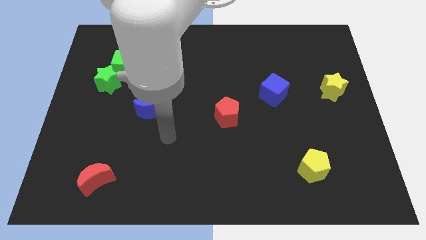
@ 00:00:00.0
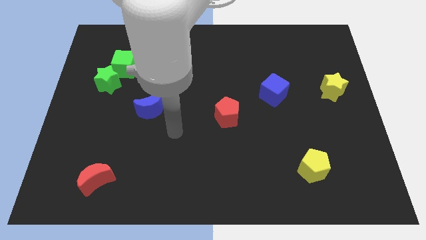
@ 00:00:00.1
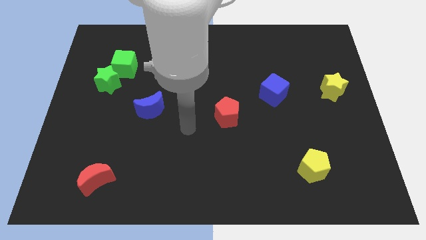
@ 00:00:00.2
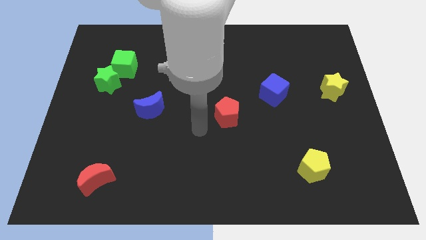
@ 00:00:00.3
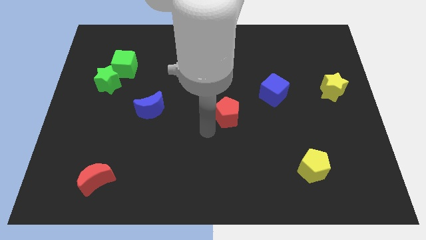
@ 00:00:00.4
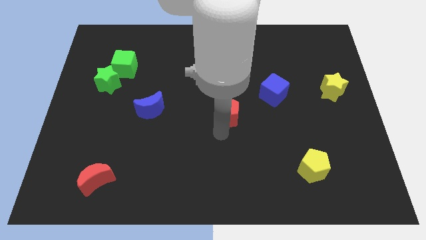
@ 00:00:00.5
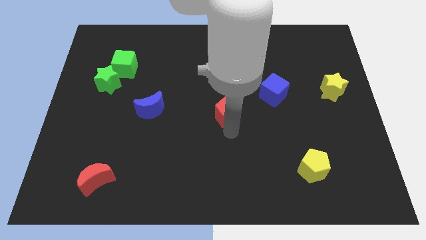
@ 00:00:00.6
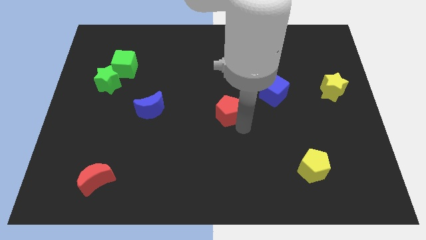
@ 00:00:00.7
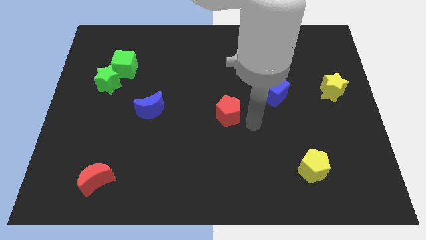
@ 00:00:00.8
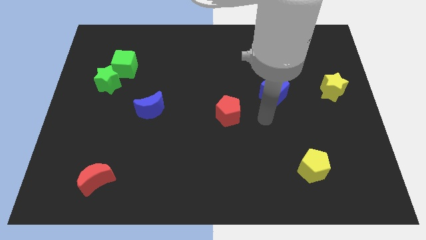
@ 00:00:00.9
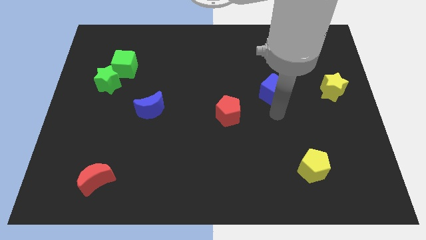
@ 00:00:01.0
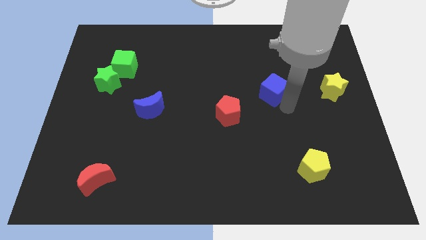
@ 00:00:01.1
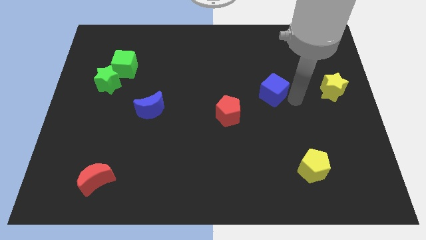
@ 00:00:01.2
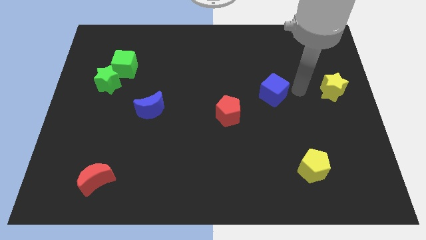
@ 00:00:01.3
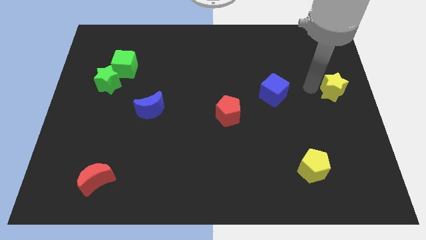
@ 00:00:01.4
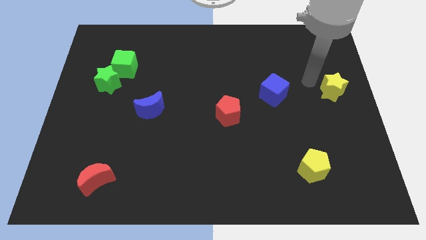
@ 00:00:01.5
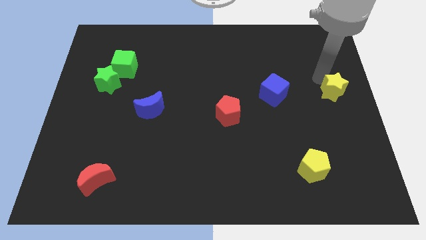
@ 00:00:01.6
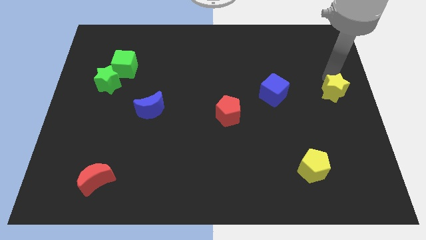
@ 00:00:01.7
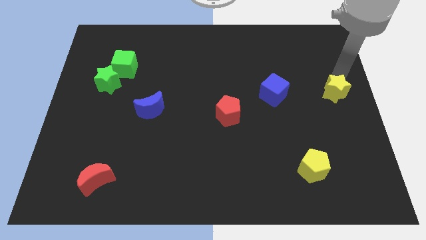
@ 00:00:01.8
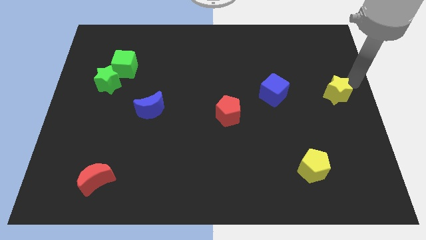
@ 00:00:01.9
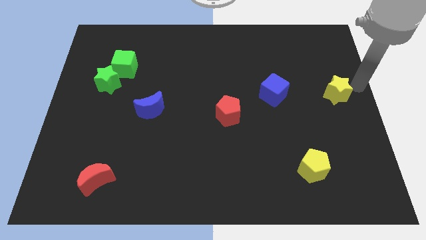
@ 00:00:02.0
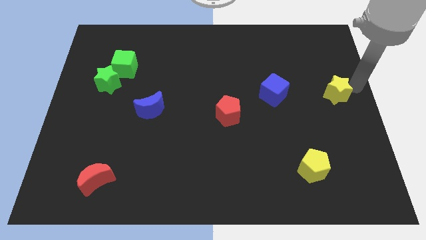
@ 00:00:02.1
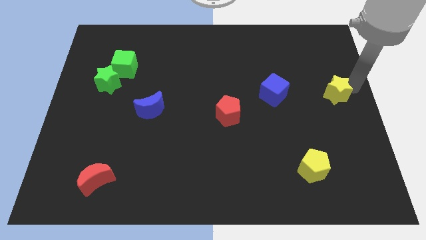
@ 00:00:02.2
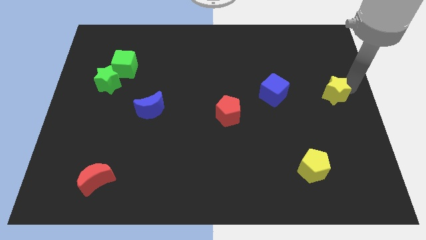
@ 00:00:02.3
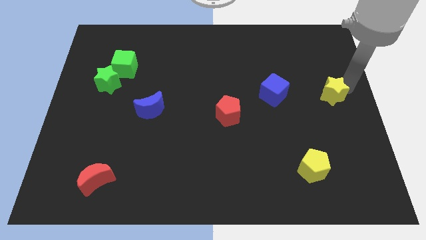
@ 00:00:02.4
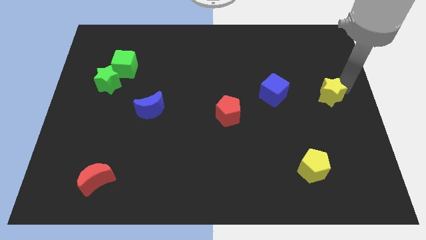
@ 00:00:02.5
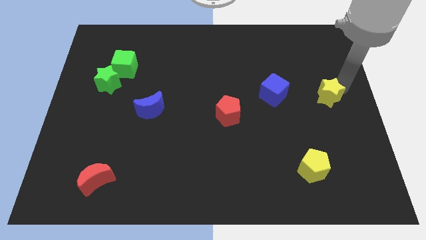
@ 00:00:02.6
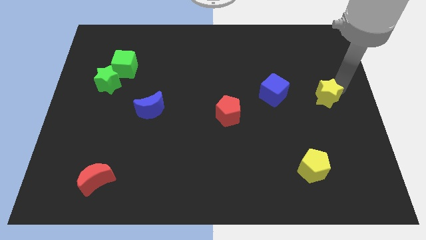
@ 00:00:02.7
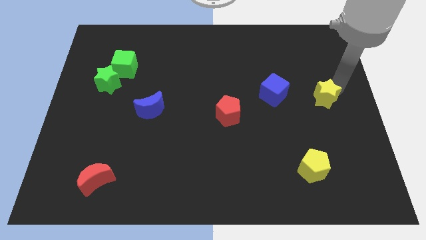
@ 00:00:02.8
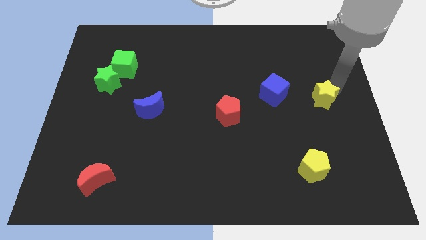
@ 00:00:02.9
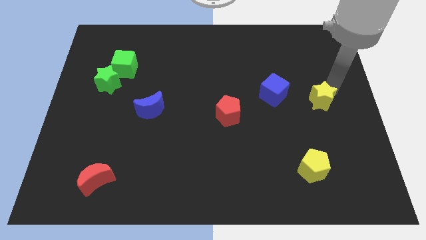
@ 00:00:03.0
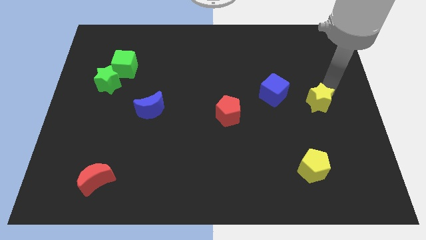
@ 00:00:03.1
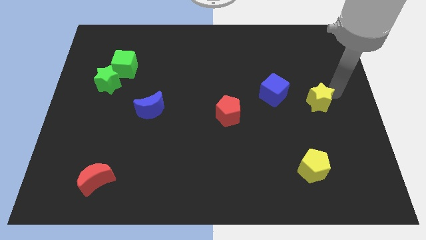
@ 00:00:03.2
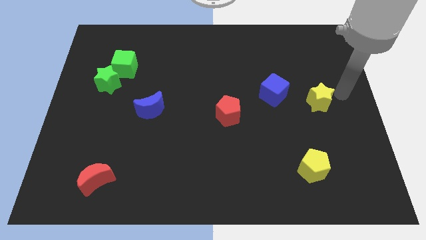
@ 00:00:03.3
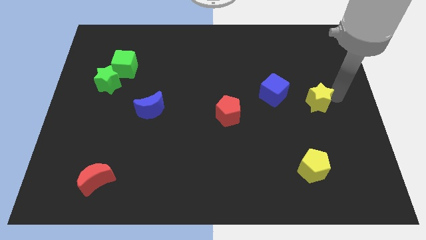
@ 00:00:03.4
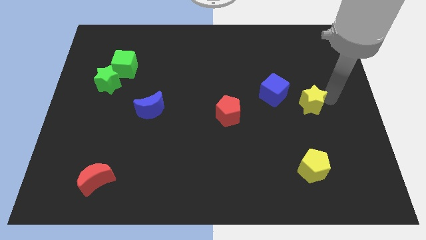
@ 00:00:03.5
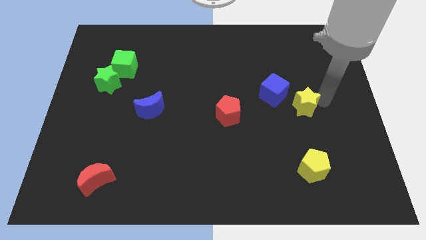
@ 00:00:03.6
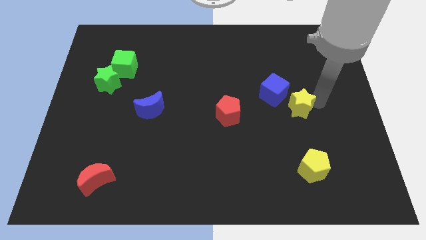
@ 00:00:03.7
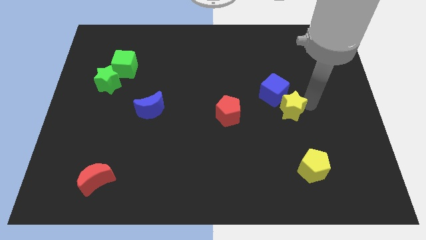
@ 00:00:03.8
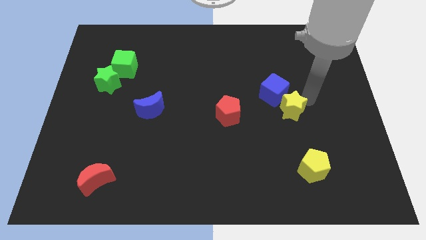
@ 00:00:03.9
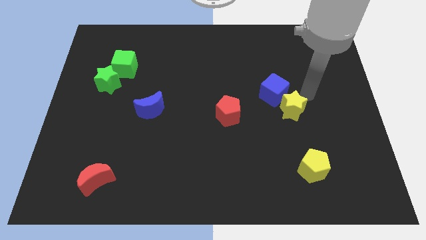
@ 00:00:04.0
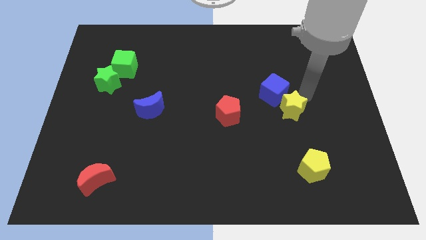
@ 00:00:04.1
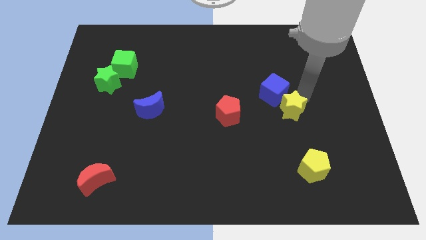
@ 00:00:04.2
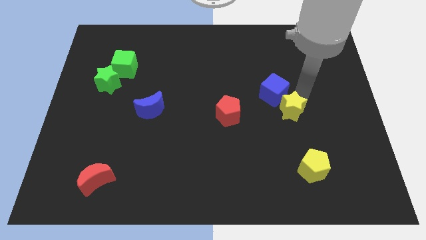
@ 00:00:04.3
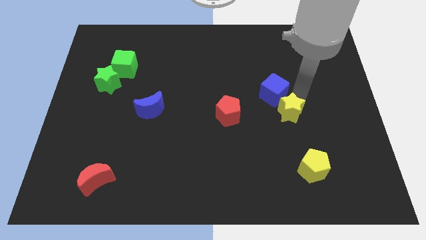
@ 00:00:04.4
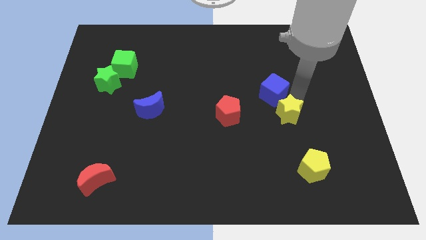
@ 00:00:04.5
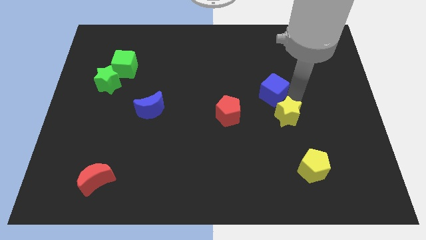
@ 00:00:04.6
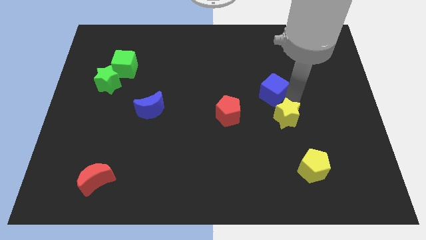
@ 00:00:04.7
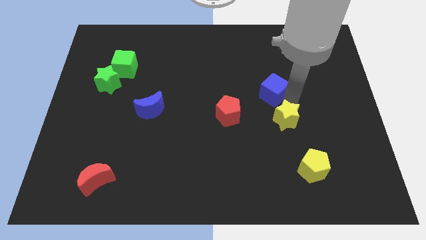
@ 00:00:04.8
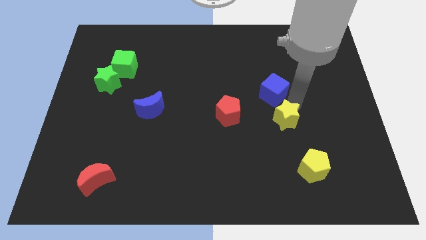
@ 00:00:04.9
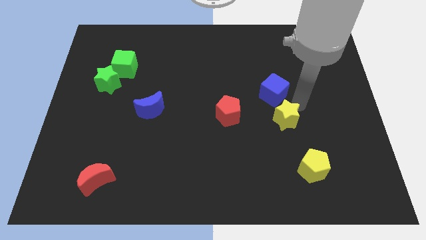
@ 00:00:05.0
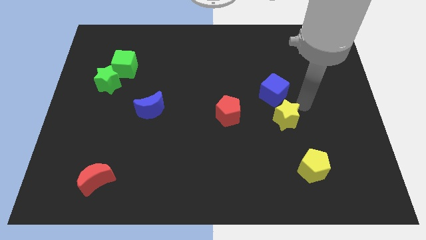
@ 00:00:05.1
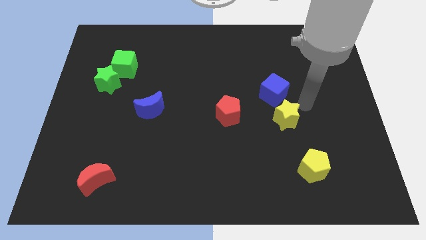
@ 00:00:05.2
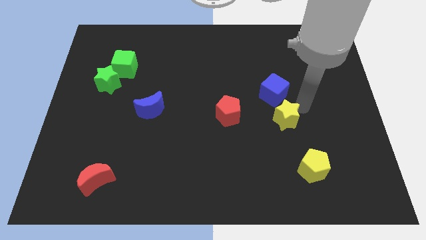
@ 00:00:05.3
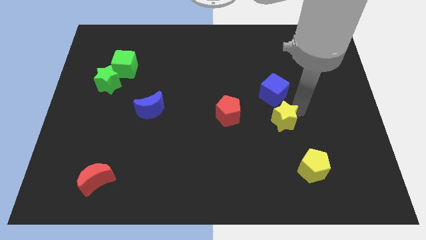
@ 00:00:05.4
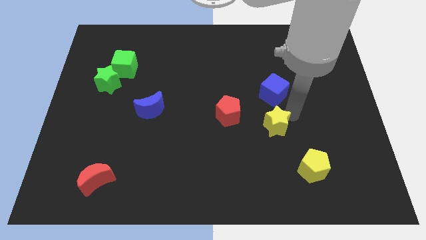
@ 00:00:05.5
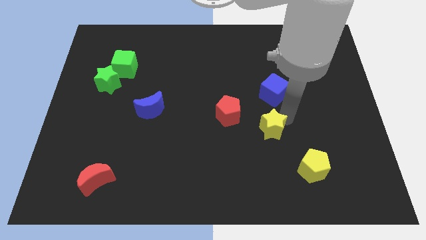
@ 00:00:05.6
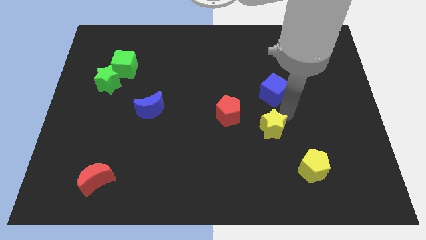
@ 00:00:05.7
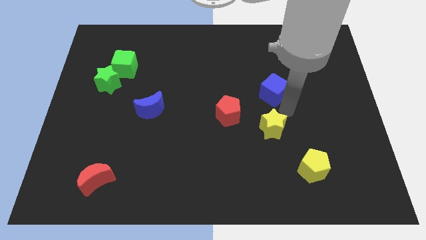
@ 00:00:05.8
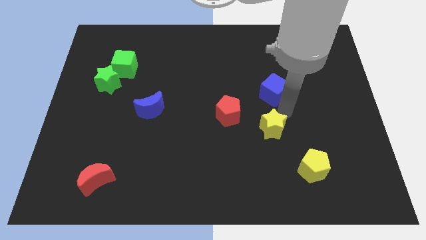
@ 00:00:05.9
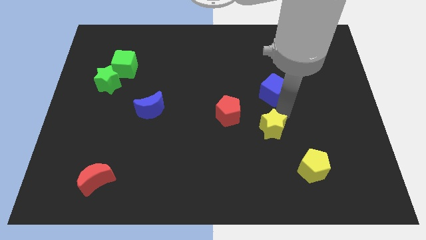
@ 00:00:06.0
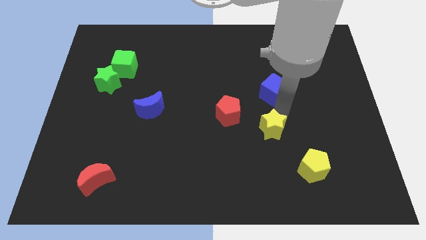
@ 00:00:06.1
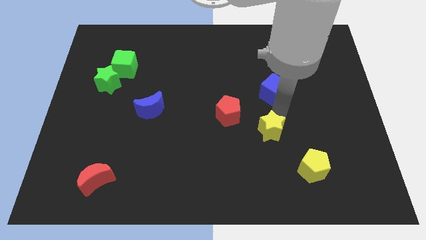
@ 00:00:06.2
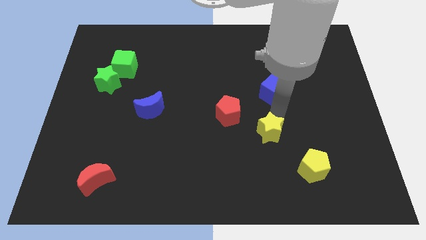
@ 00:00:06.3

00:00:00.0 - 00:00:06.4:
push the yellow star down and to the left

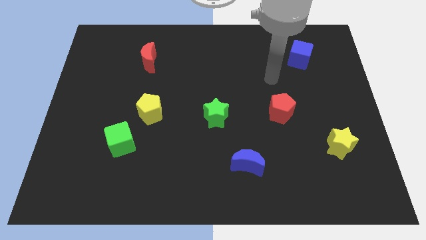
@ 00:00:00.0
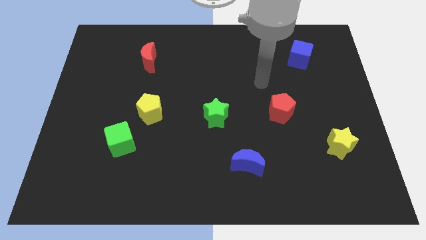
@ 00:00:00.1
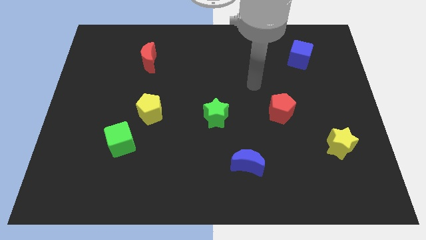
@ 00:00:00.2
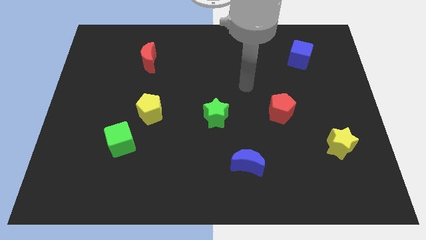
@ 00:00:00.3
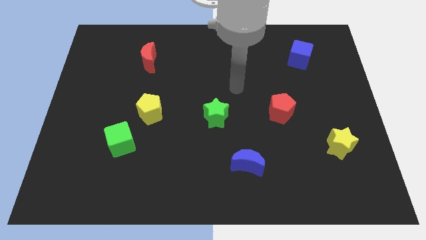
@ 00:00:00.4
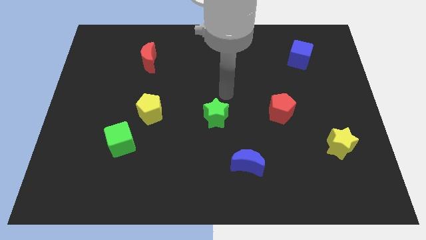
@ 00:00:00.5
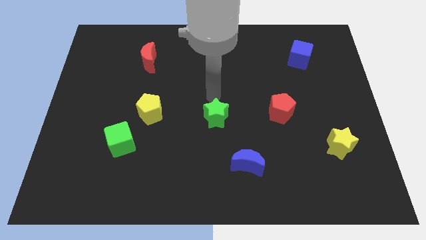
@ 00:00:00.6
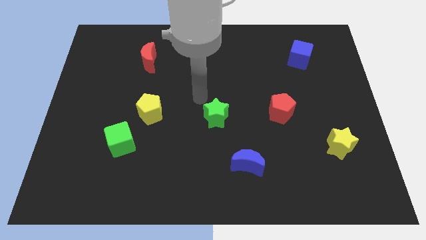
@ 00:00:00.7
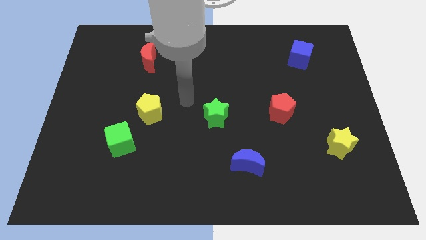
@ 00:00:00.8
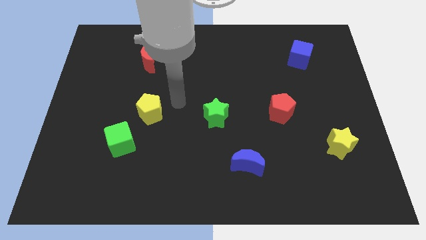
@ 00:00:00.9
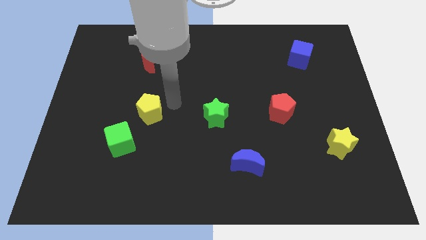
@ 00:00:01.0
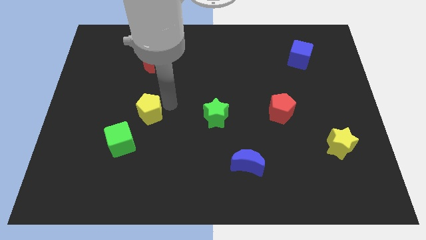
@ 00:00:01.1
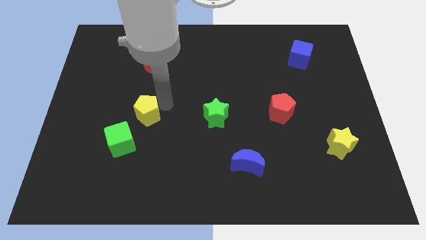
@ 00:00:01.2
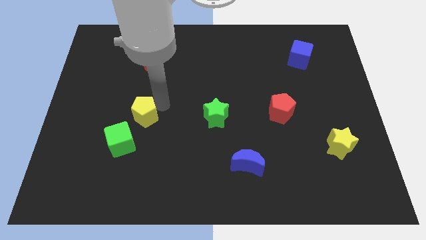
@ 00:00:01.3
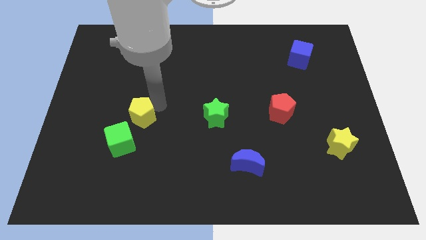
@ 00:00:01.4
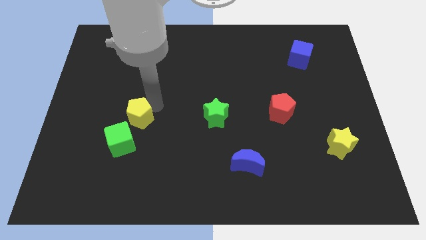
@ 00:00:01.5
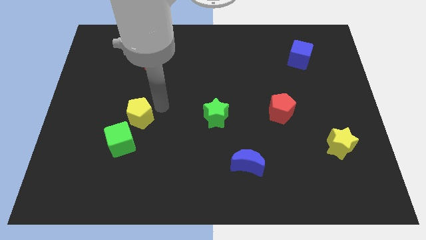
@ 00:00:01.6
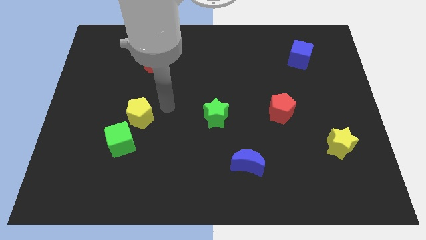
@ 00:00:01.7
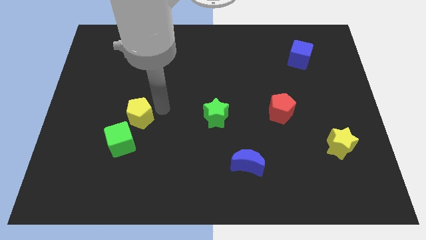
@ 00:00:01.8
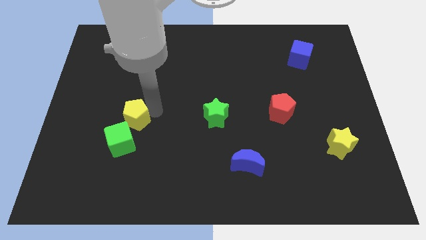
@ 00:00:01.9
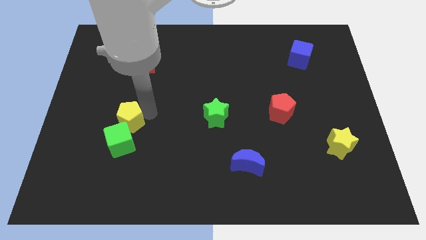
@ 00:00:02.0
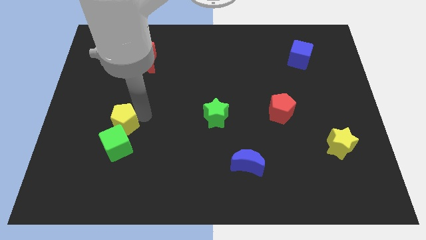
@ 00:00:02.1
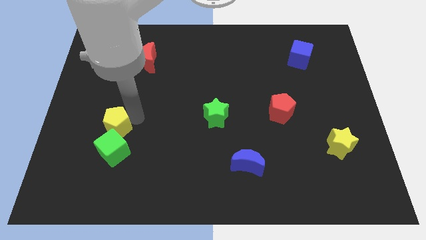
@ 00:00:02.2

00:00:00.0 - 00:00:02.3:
slightly slide the yellow pentagon down and to the left
